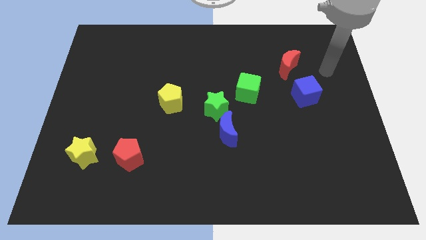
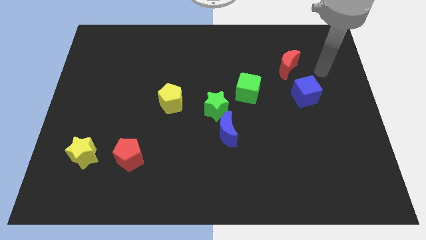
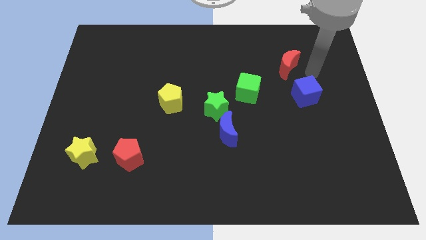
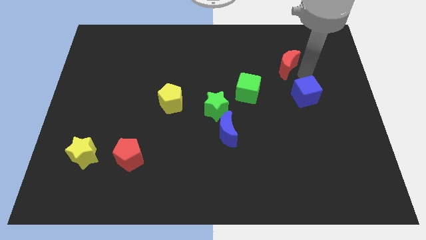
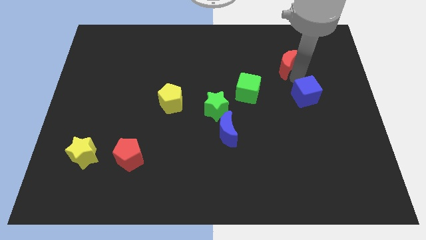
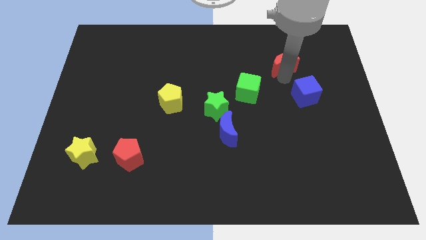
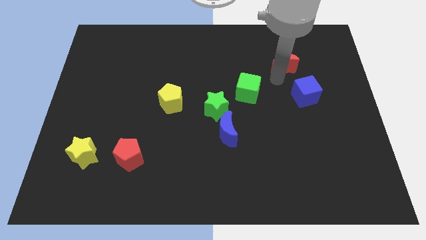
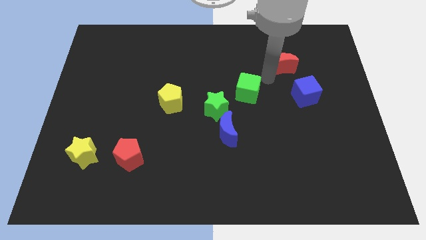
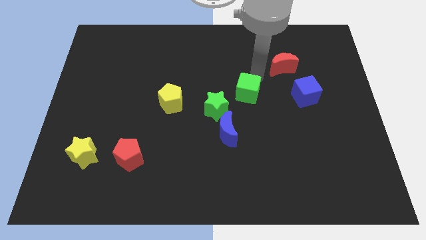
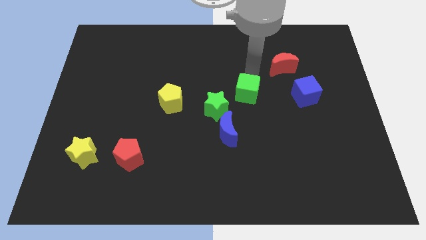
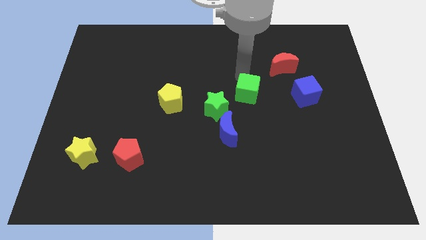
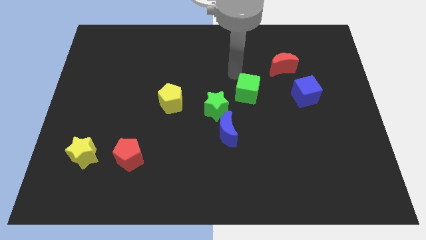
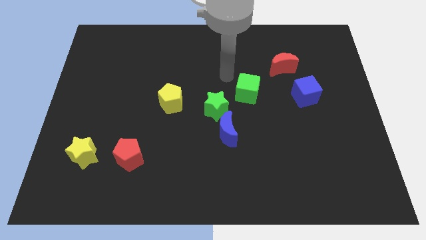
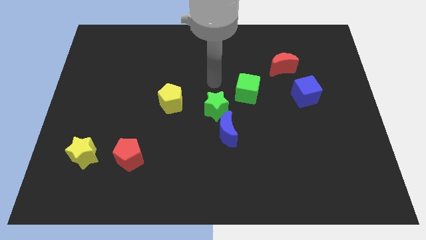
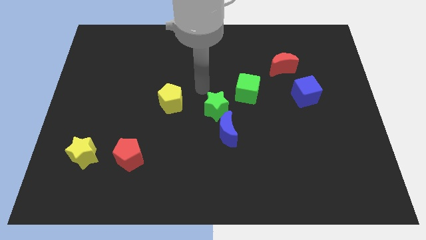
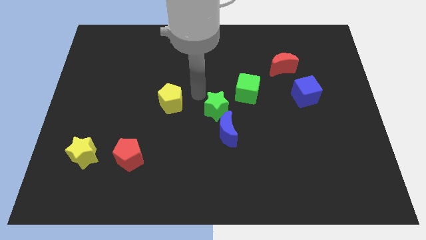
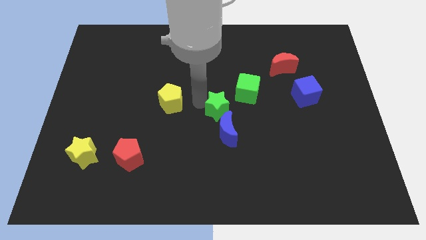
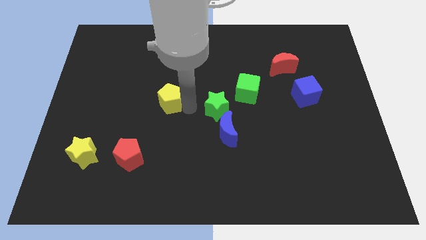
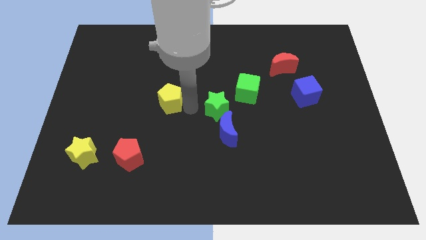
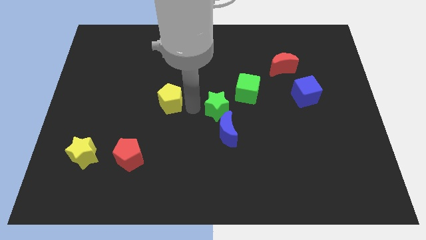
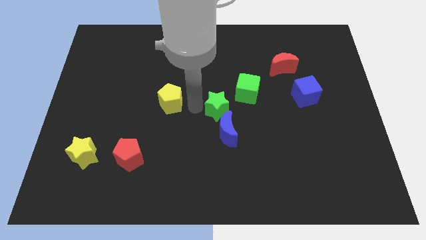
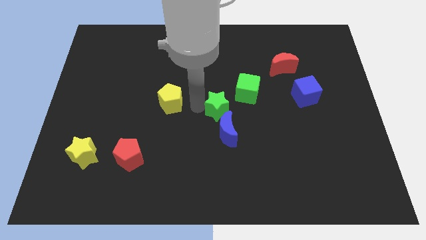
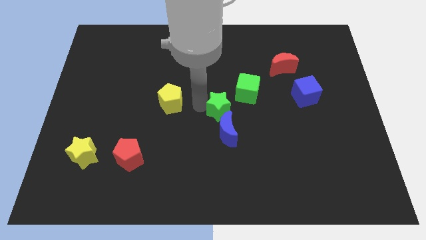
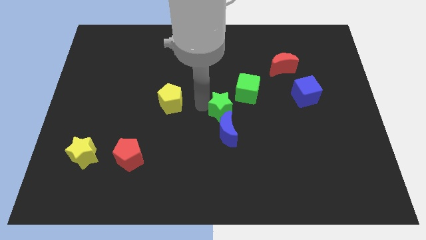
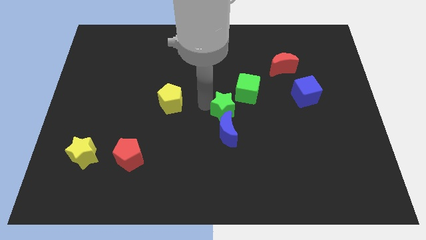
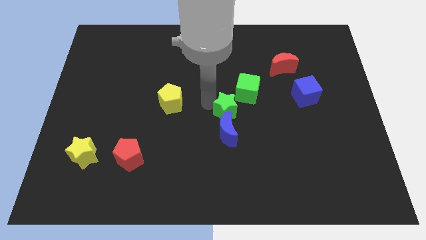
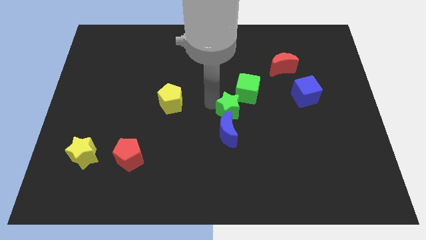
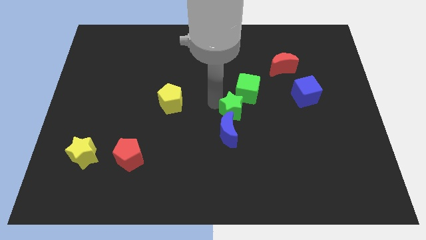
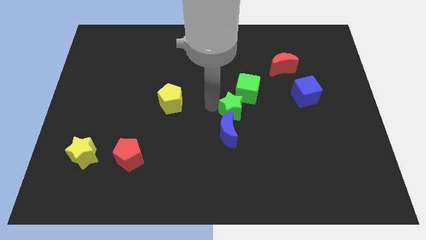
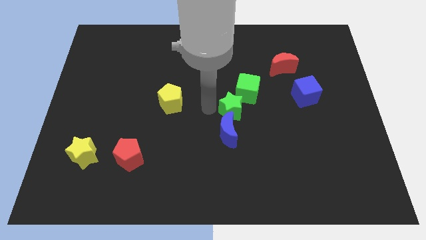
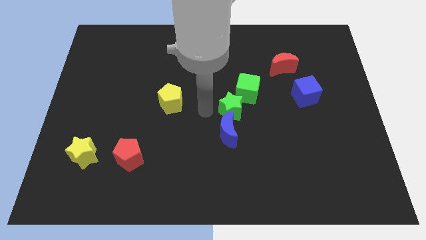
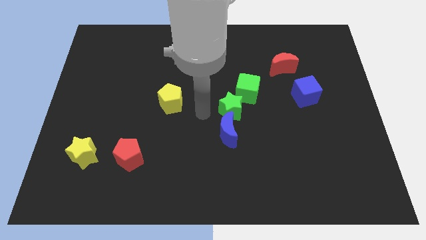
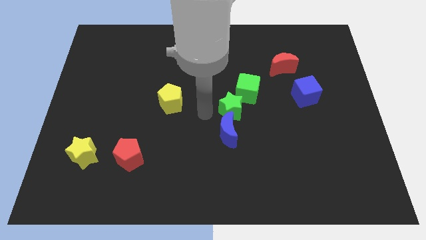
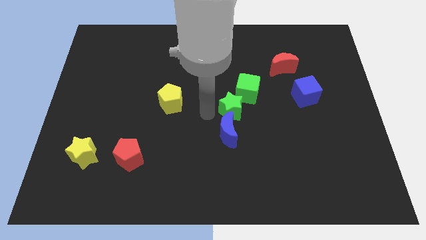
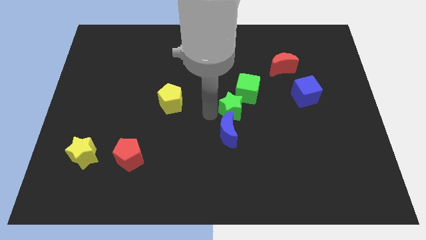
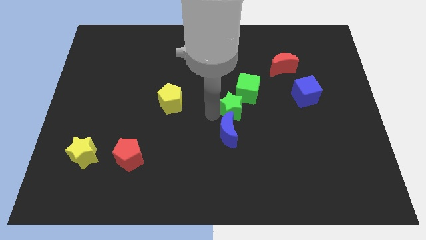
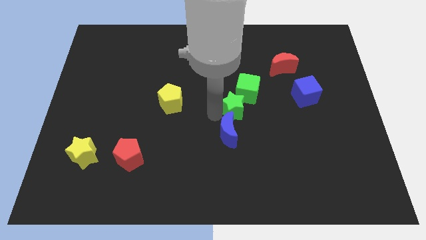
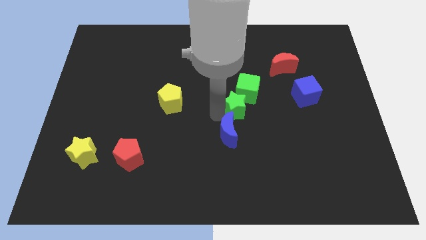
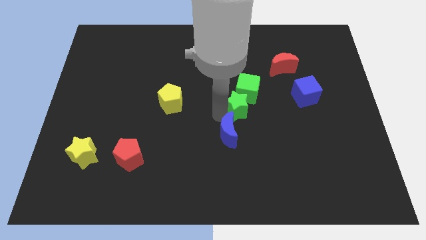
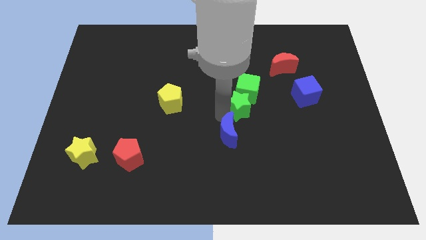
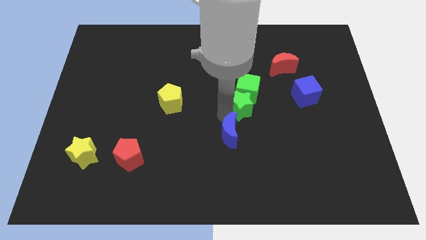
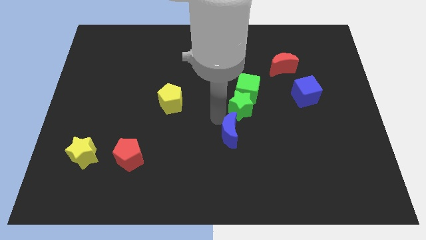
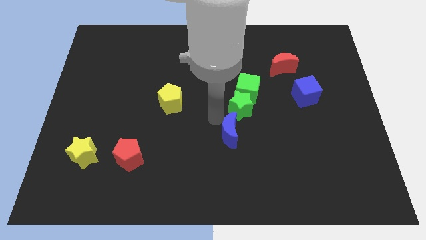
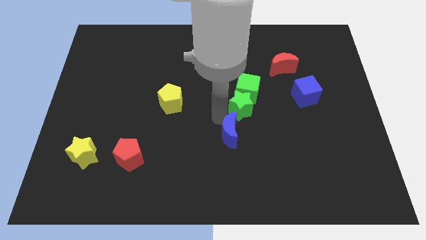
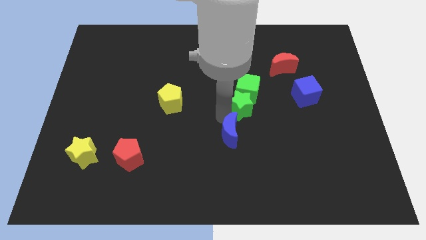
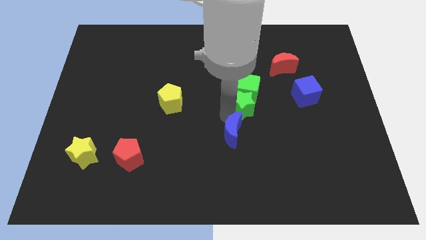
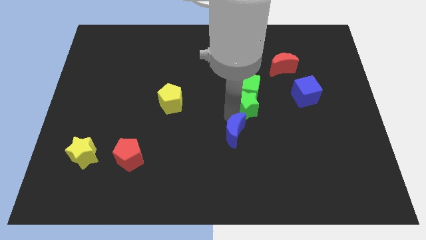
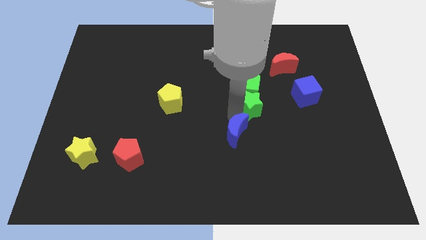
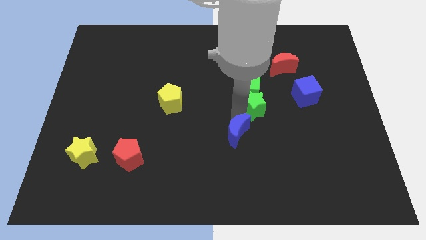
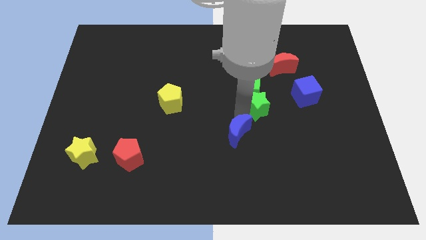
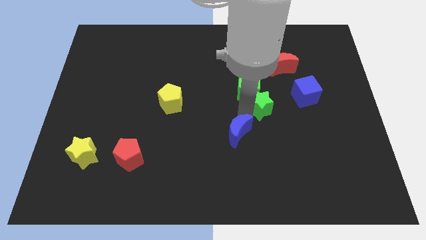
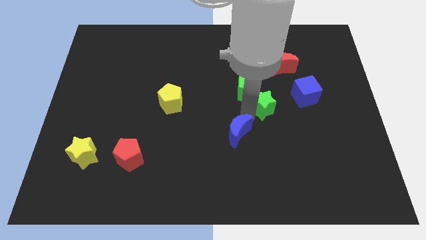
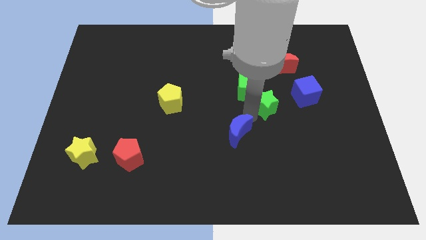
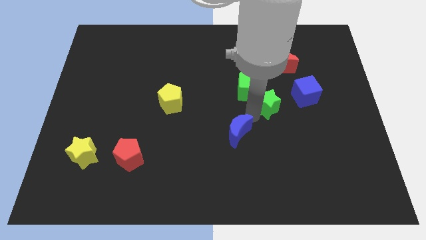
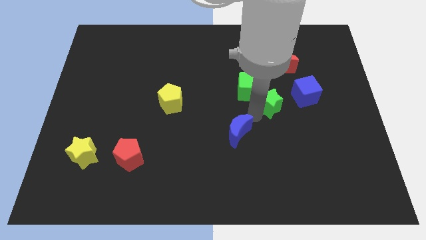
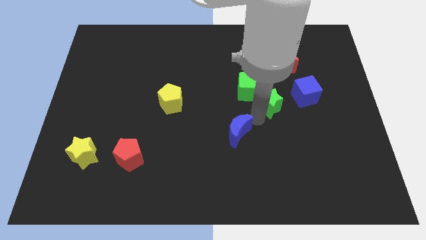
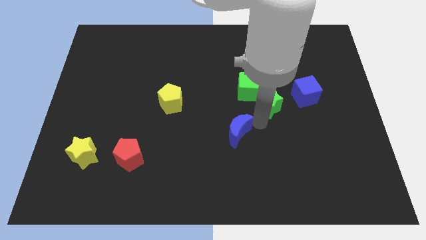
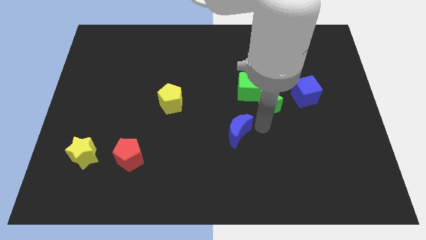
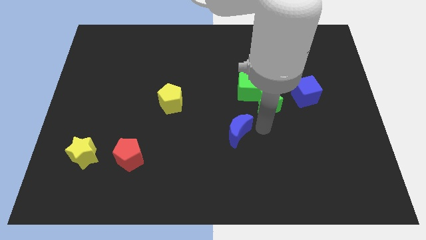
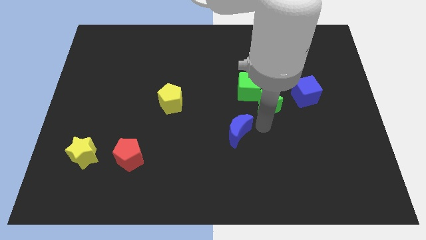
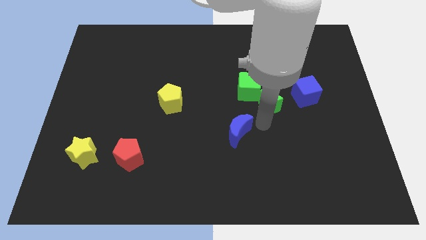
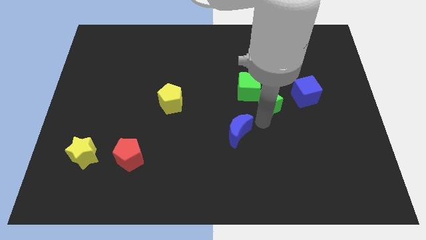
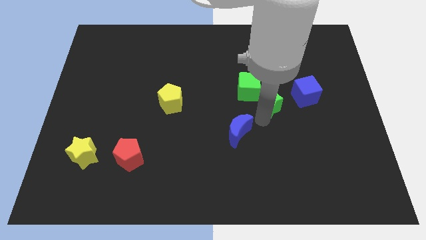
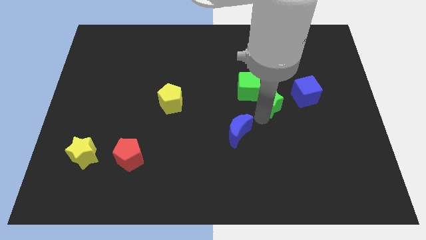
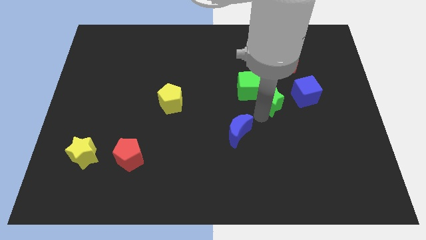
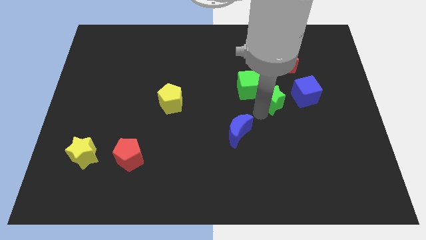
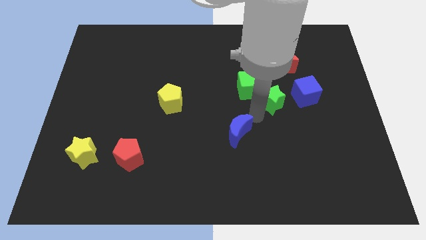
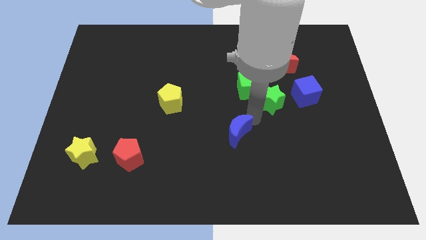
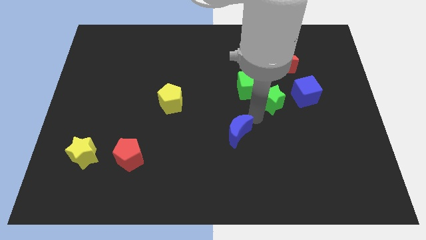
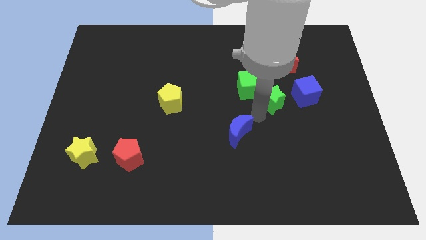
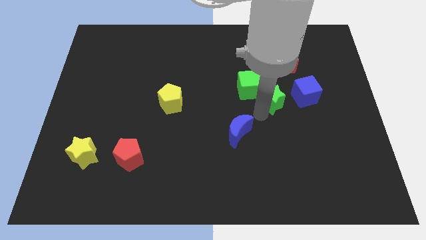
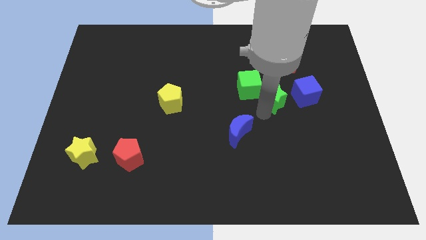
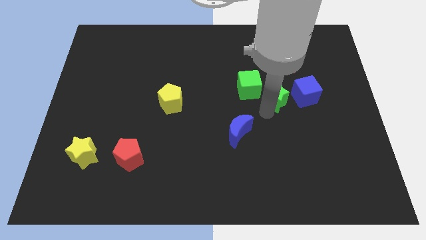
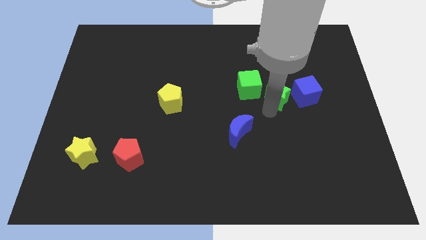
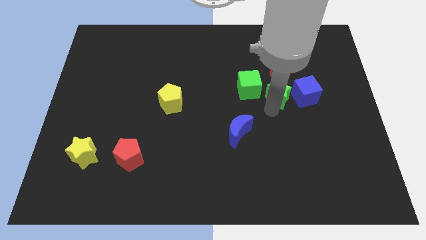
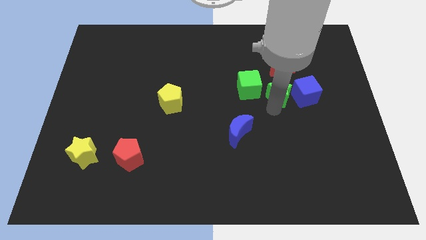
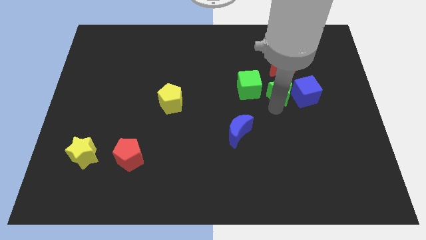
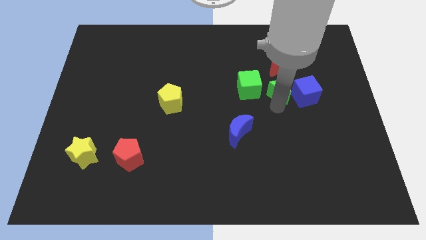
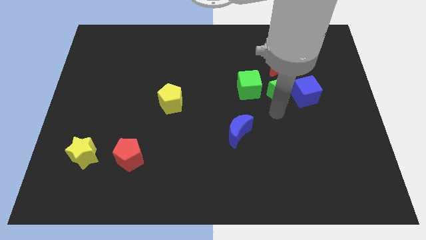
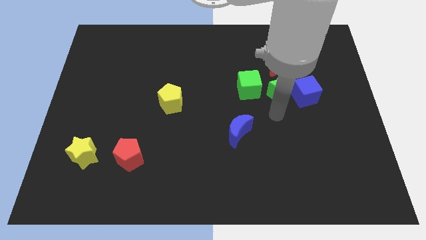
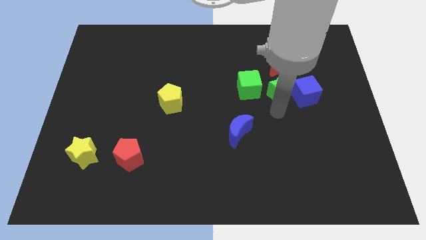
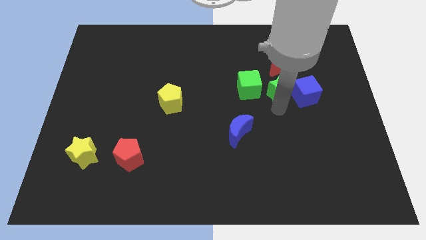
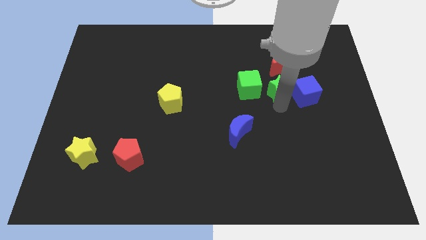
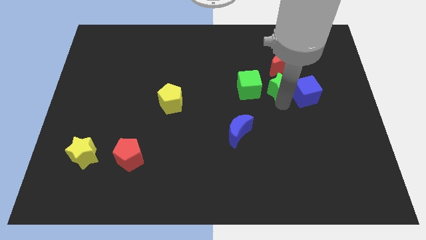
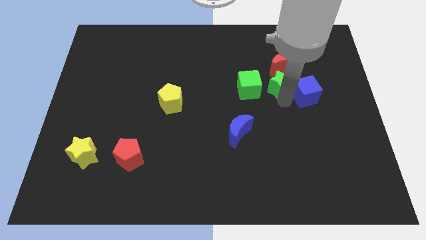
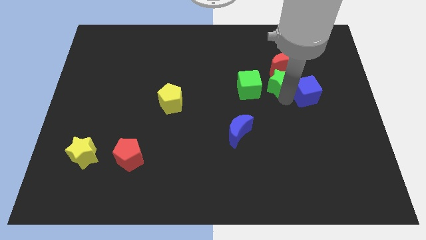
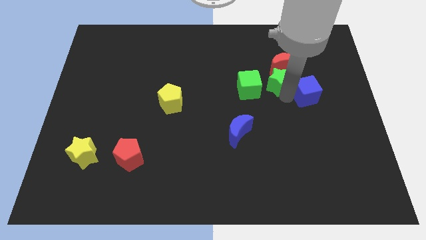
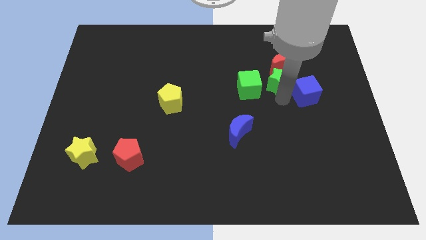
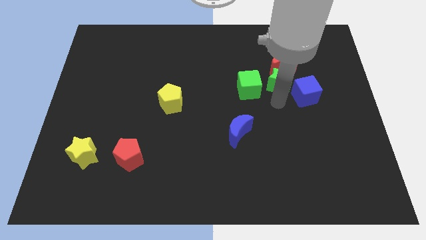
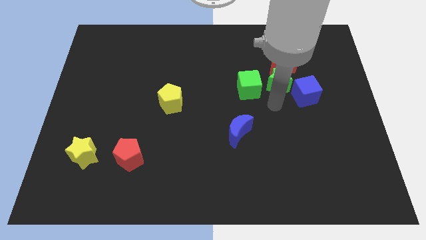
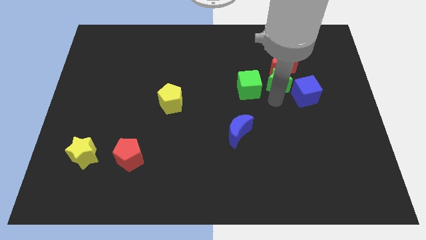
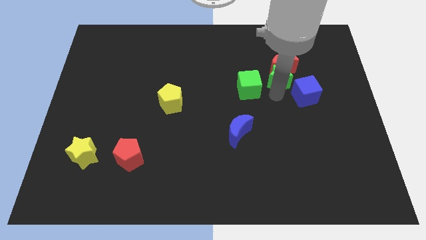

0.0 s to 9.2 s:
push the green star to the red moon
